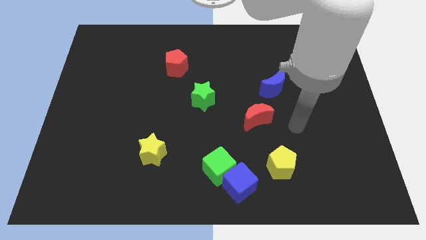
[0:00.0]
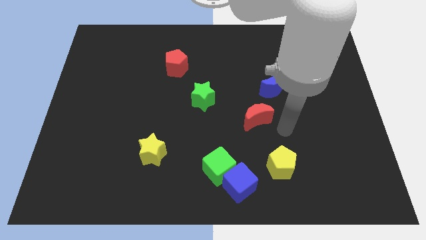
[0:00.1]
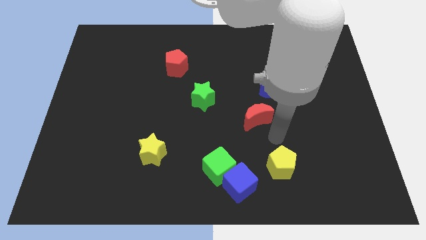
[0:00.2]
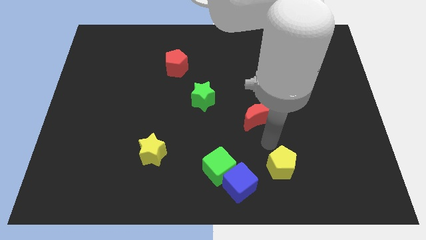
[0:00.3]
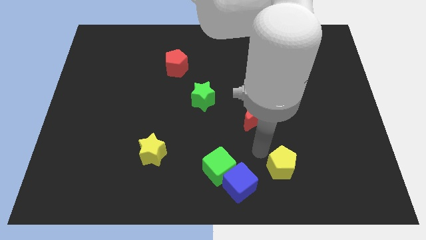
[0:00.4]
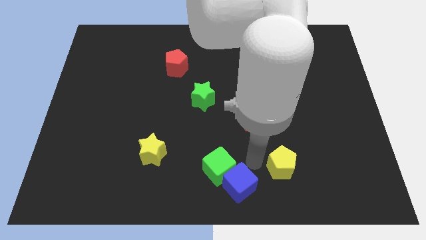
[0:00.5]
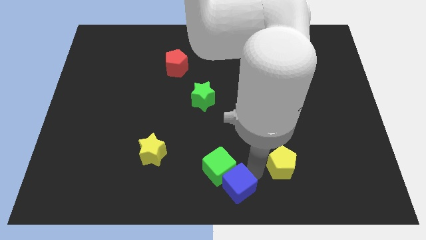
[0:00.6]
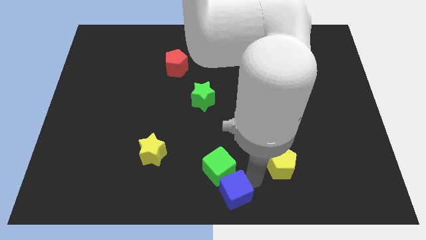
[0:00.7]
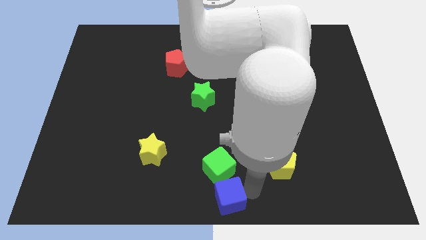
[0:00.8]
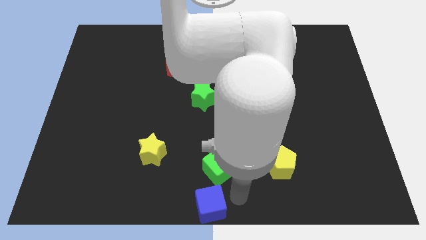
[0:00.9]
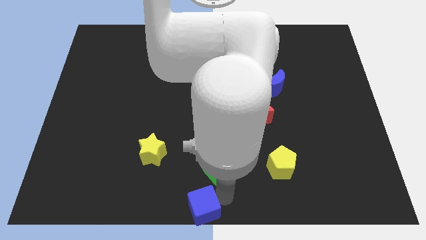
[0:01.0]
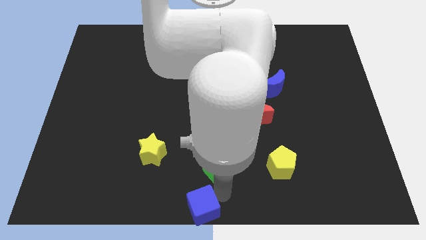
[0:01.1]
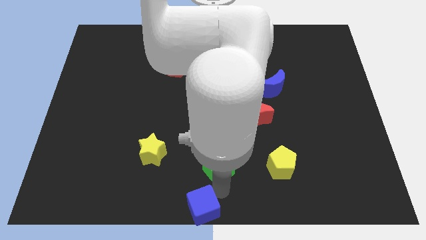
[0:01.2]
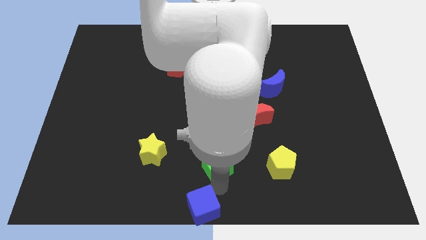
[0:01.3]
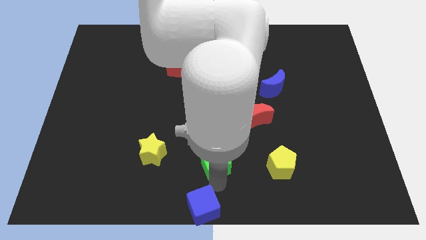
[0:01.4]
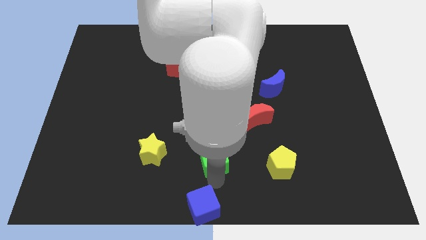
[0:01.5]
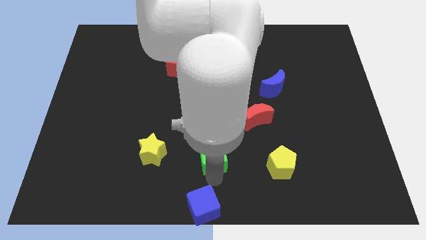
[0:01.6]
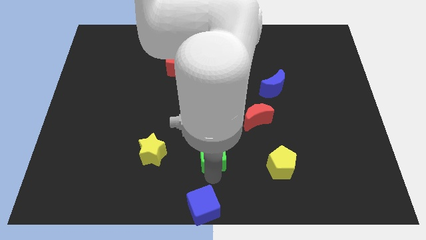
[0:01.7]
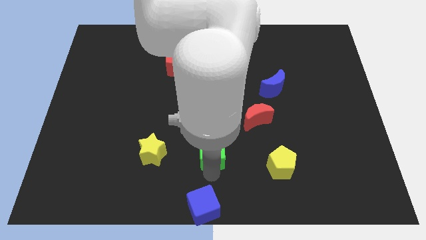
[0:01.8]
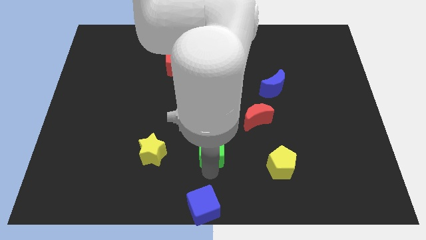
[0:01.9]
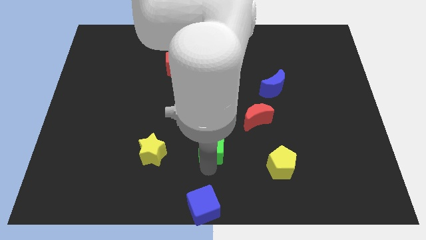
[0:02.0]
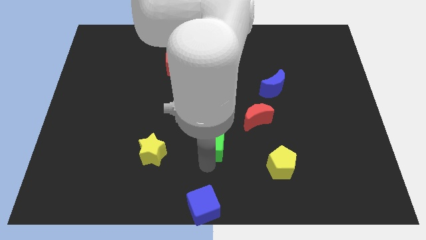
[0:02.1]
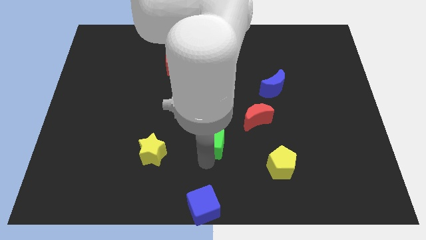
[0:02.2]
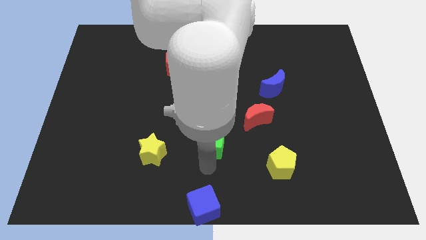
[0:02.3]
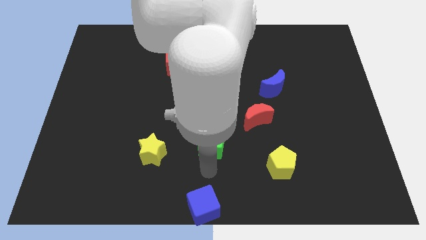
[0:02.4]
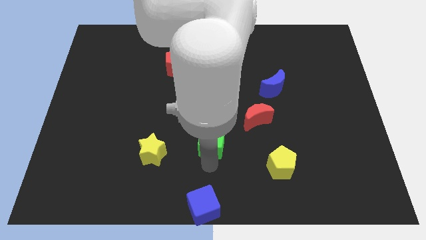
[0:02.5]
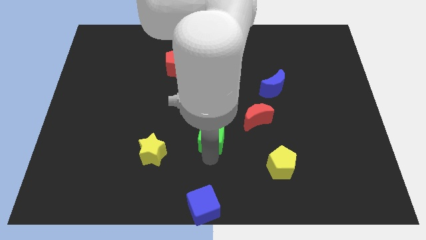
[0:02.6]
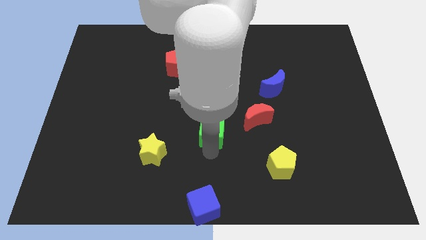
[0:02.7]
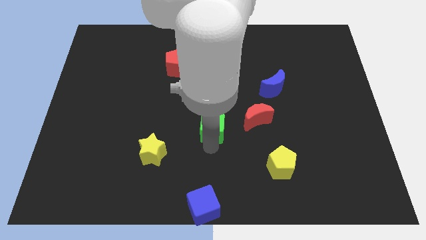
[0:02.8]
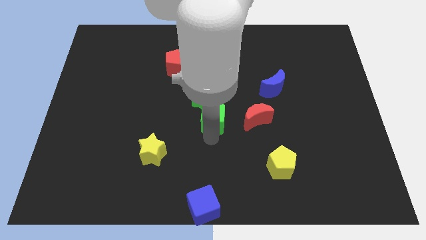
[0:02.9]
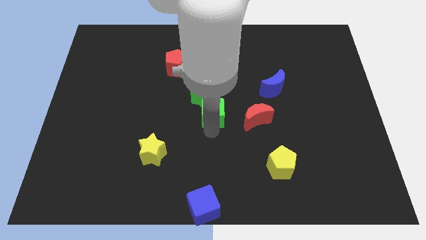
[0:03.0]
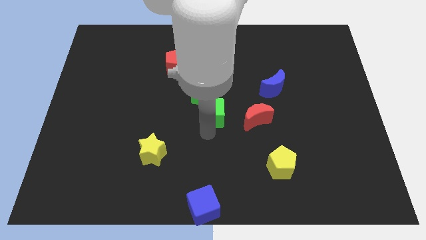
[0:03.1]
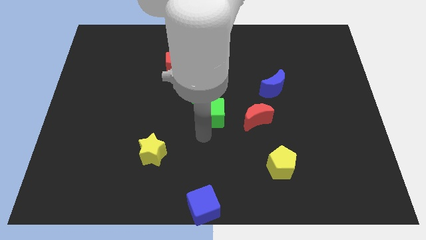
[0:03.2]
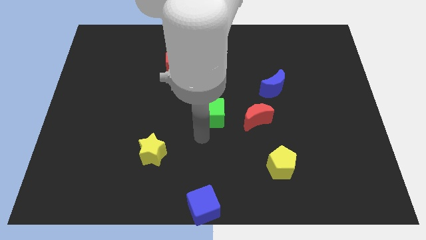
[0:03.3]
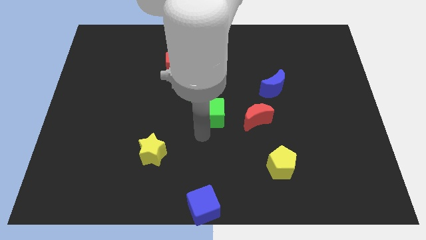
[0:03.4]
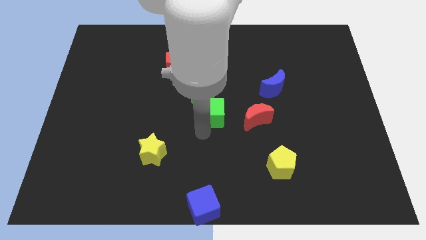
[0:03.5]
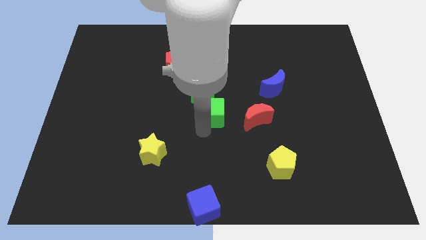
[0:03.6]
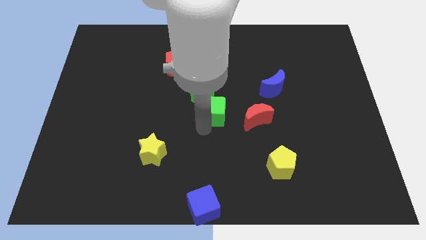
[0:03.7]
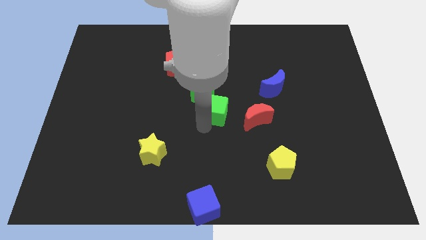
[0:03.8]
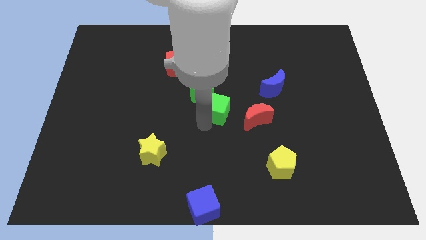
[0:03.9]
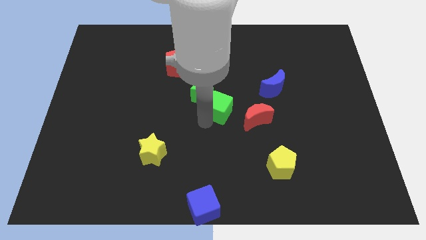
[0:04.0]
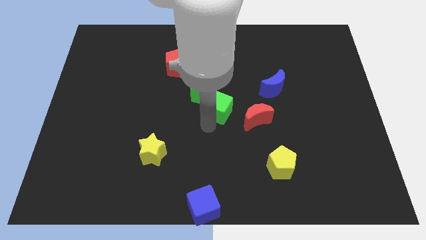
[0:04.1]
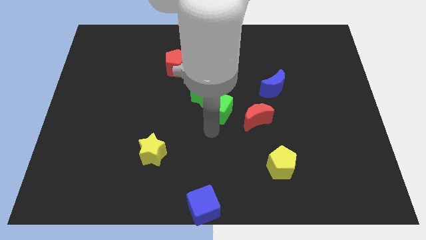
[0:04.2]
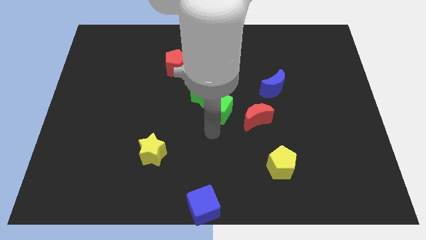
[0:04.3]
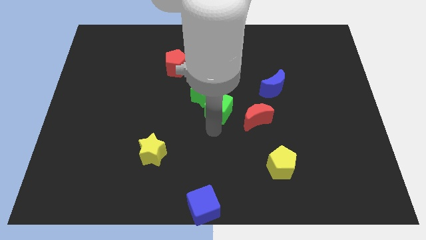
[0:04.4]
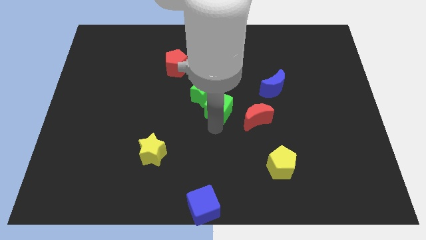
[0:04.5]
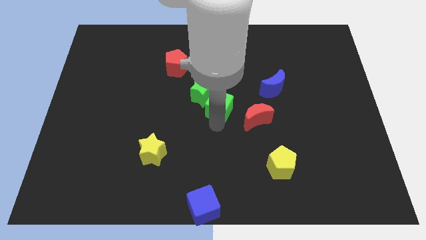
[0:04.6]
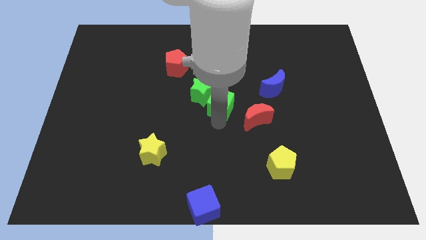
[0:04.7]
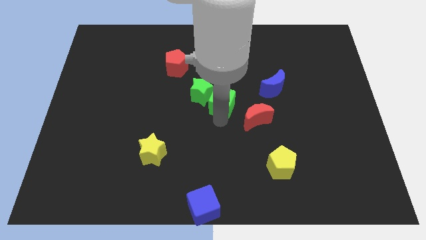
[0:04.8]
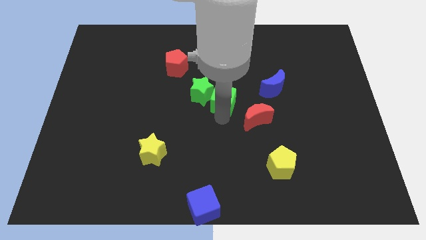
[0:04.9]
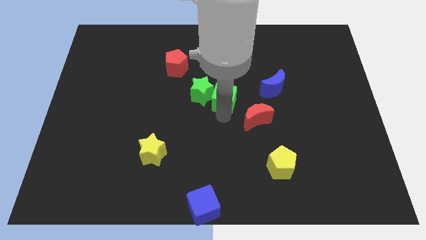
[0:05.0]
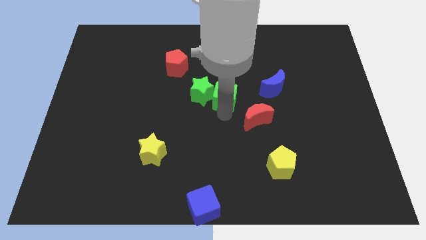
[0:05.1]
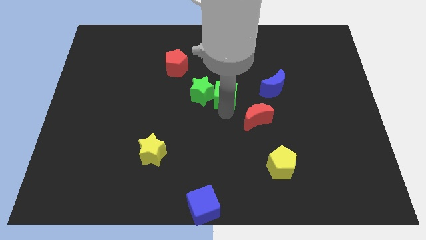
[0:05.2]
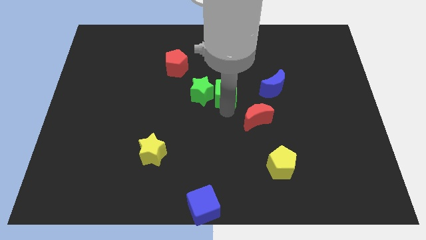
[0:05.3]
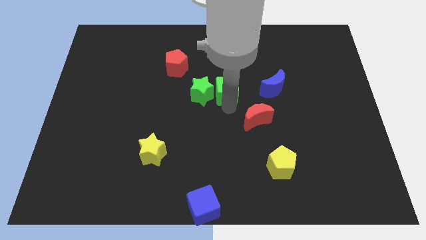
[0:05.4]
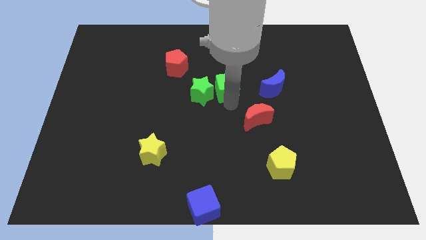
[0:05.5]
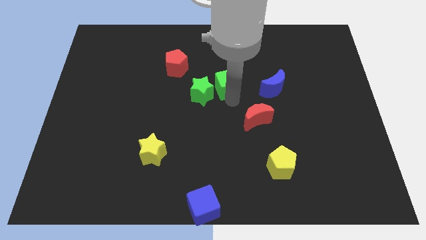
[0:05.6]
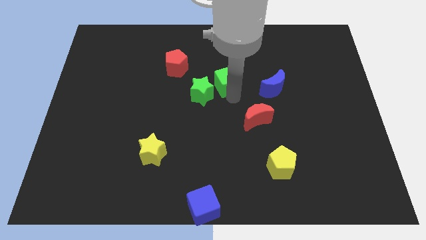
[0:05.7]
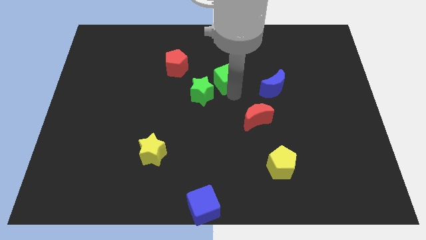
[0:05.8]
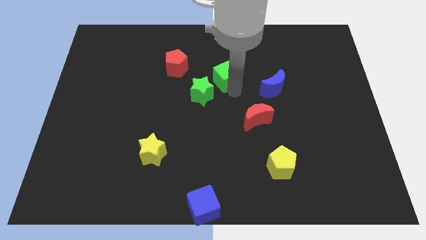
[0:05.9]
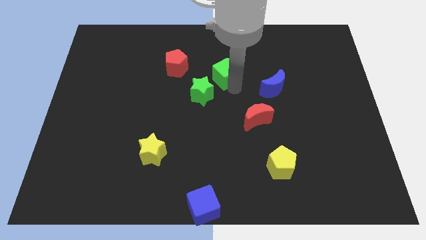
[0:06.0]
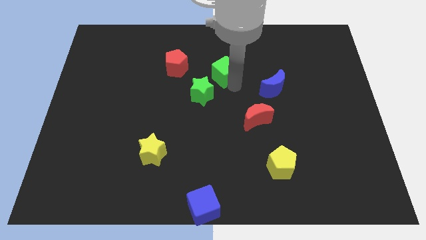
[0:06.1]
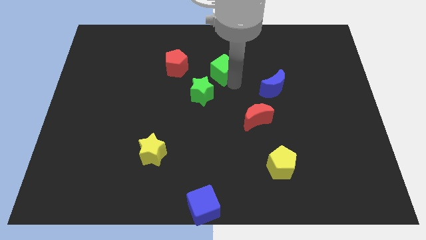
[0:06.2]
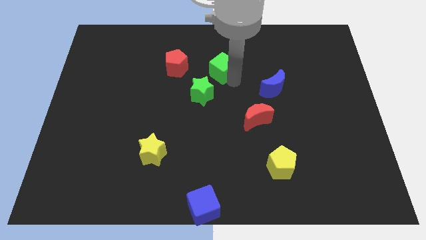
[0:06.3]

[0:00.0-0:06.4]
put the green cube to the top of the green star

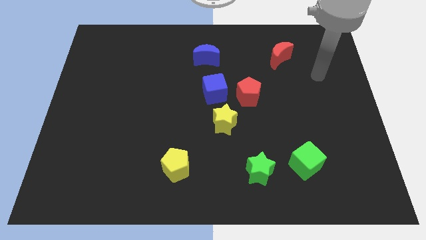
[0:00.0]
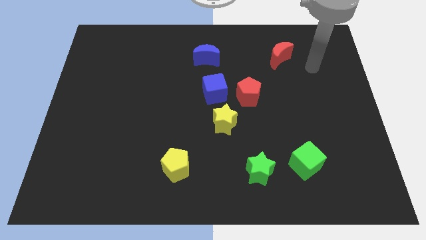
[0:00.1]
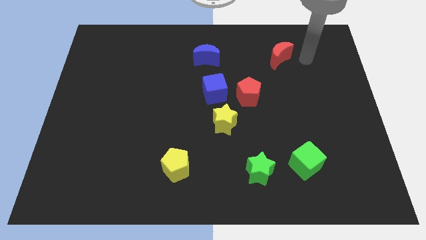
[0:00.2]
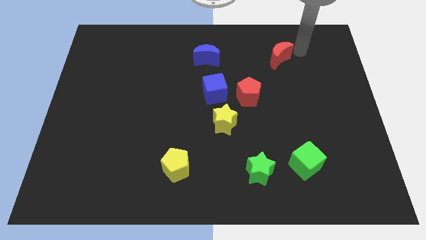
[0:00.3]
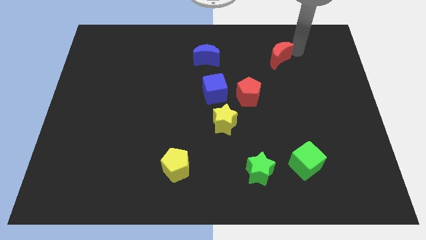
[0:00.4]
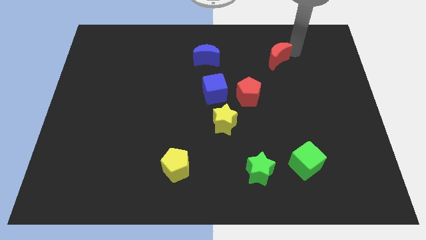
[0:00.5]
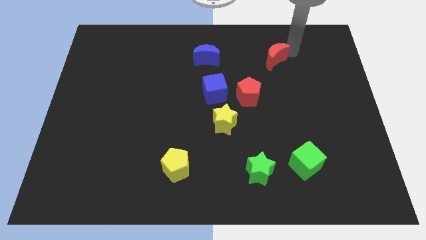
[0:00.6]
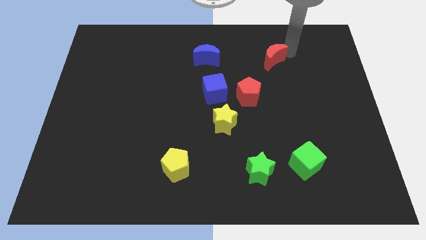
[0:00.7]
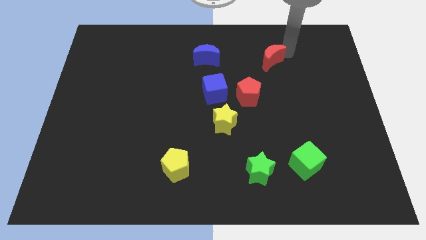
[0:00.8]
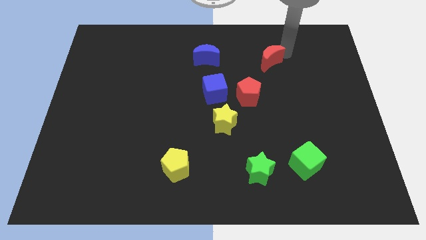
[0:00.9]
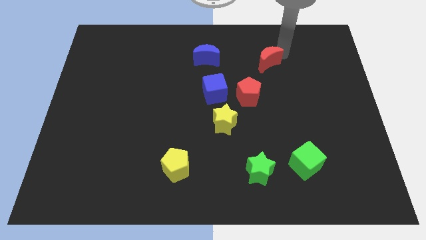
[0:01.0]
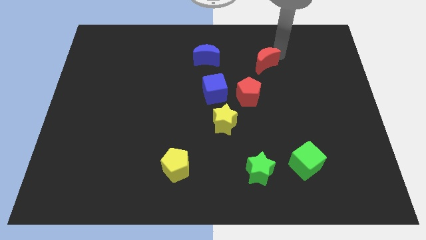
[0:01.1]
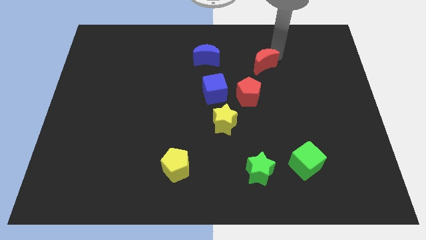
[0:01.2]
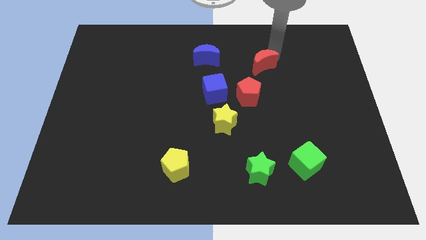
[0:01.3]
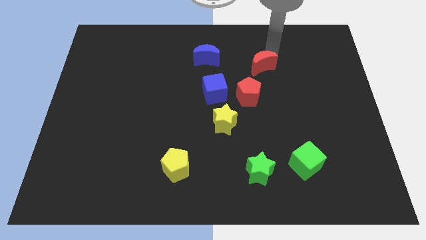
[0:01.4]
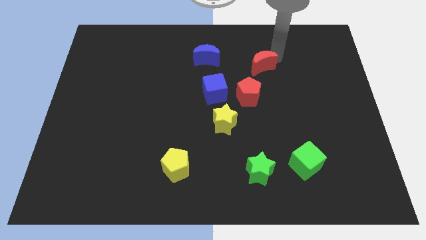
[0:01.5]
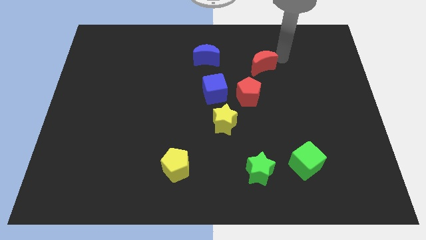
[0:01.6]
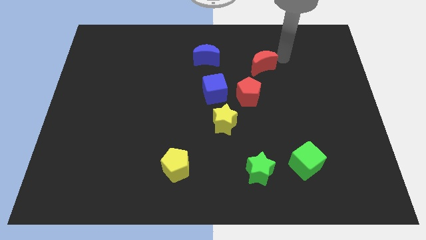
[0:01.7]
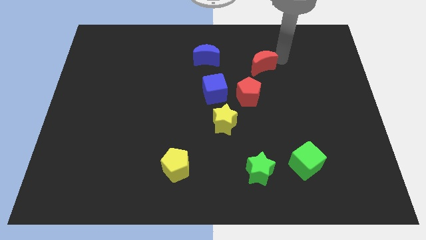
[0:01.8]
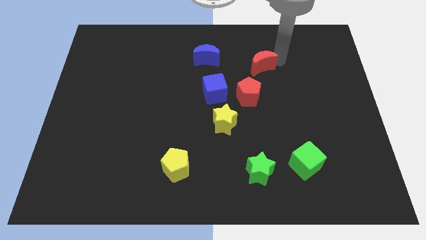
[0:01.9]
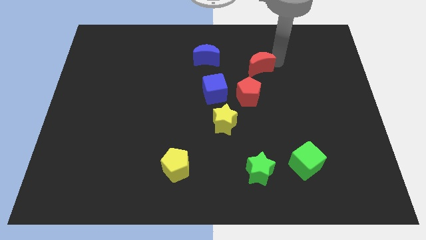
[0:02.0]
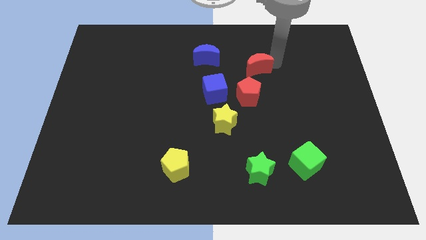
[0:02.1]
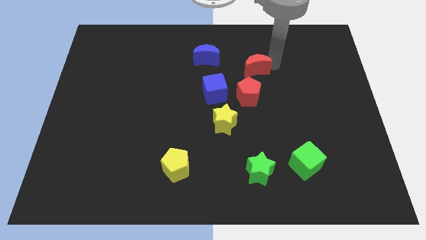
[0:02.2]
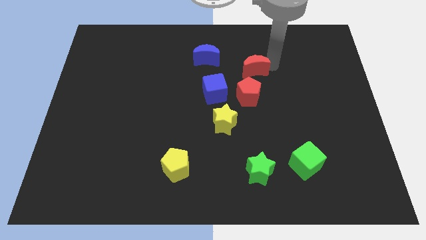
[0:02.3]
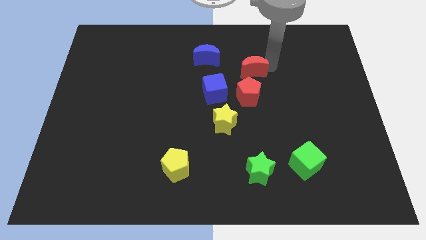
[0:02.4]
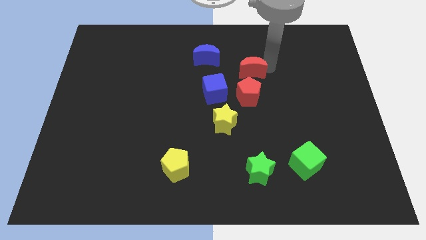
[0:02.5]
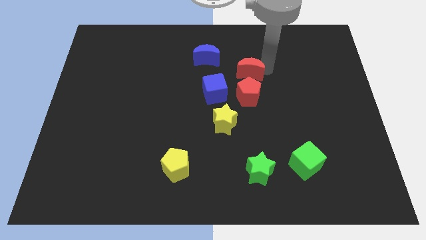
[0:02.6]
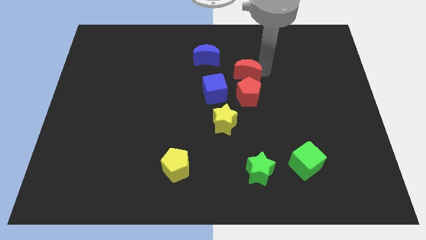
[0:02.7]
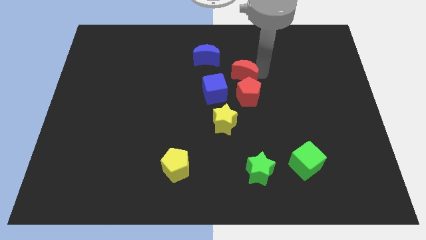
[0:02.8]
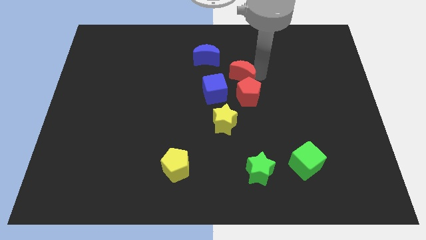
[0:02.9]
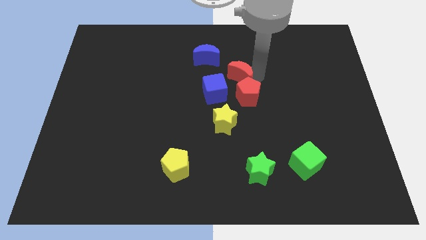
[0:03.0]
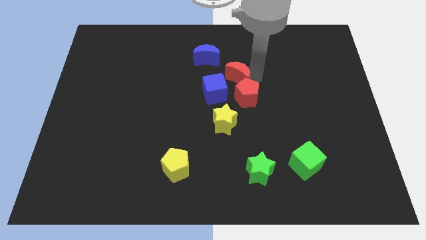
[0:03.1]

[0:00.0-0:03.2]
put the red moon above the yellow star
